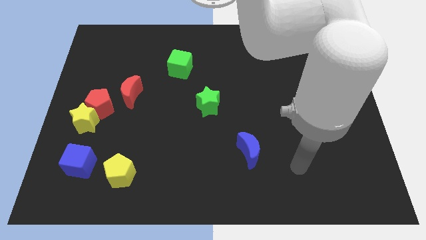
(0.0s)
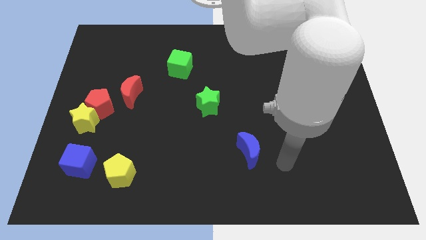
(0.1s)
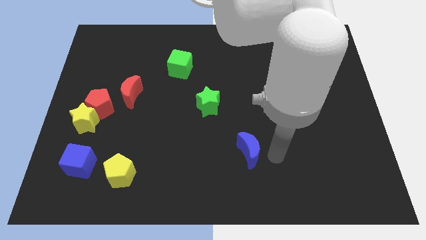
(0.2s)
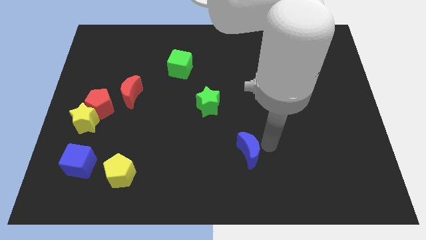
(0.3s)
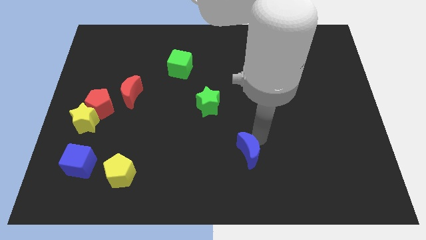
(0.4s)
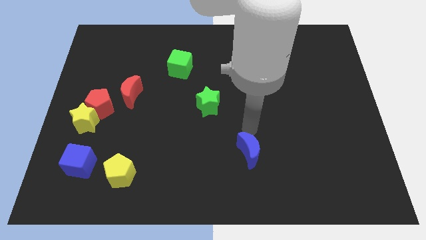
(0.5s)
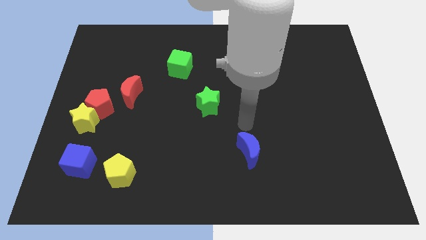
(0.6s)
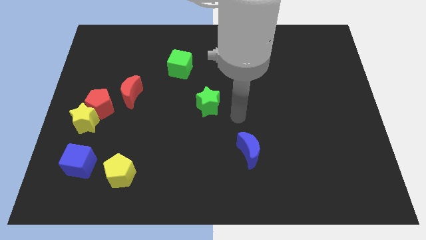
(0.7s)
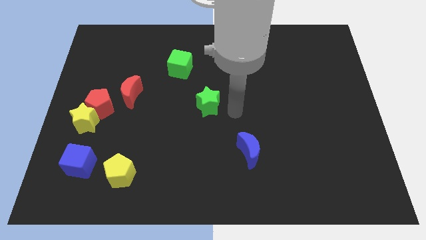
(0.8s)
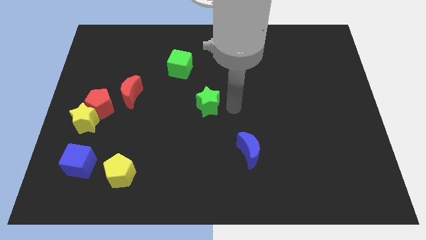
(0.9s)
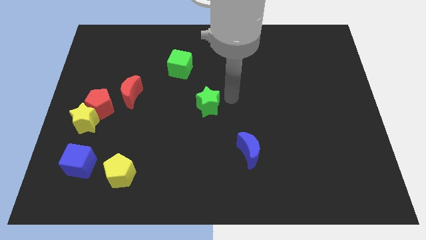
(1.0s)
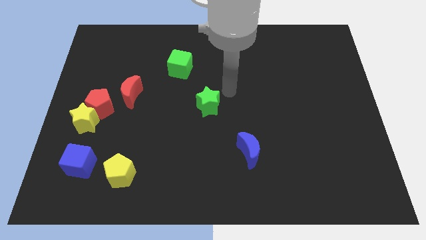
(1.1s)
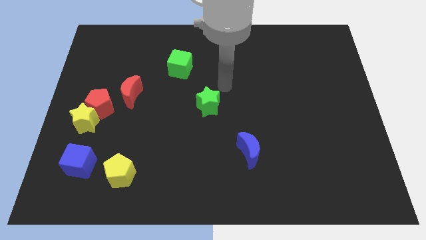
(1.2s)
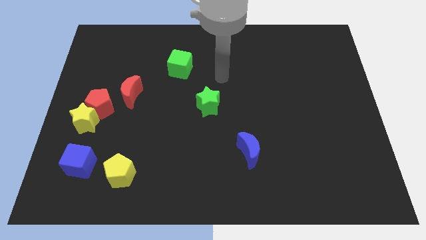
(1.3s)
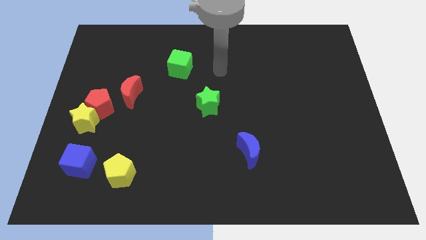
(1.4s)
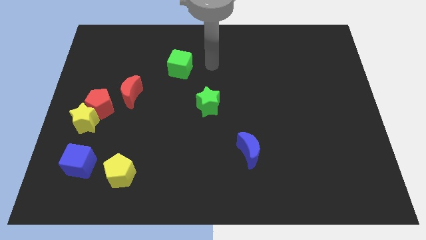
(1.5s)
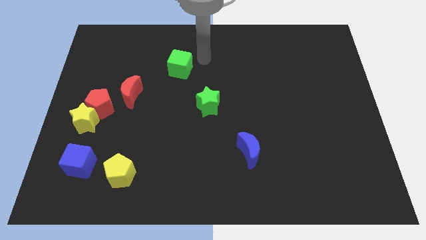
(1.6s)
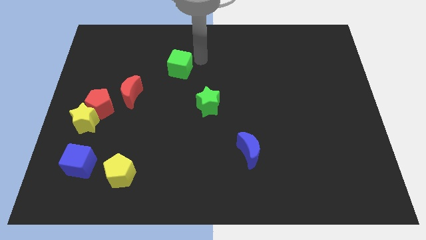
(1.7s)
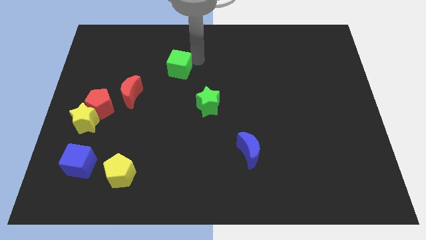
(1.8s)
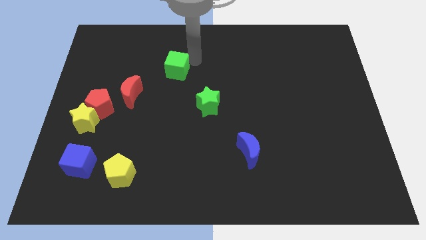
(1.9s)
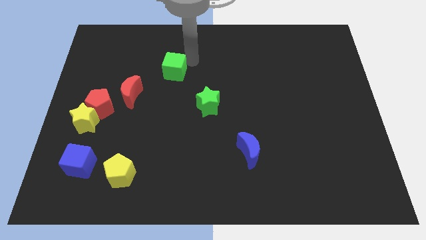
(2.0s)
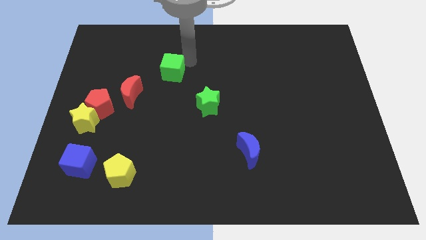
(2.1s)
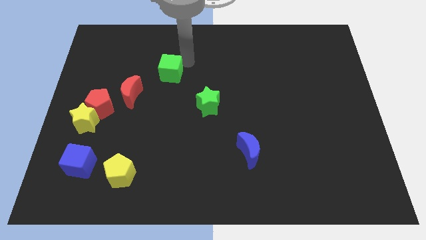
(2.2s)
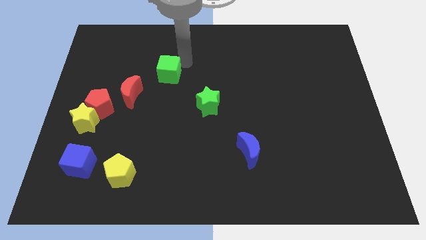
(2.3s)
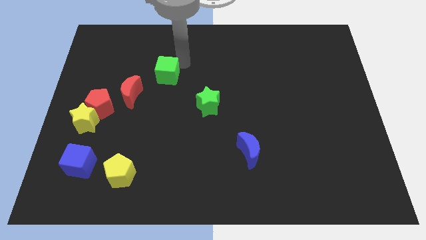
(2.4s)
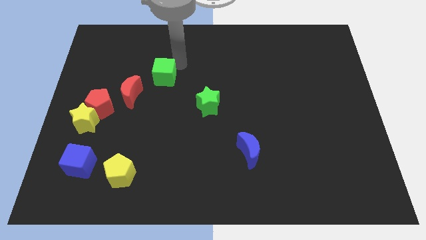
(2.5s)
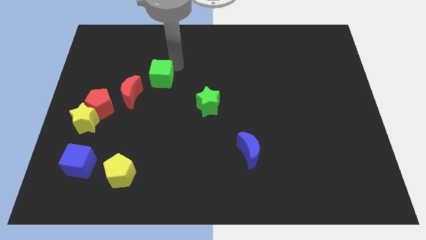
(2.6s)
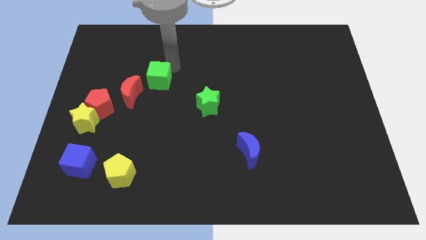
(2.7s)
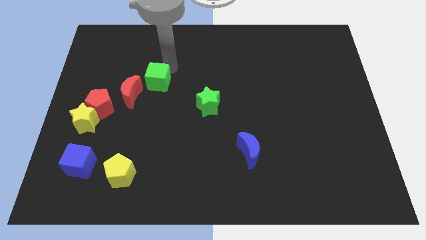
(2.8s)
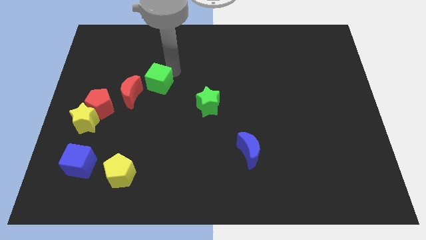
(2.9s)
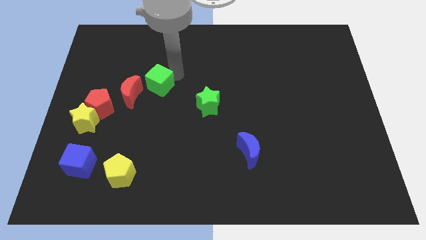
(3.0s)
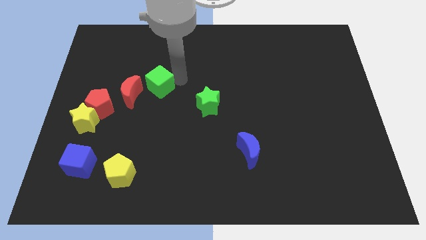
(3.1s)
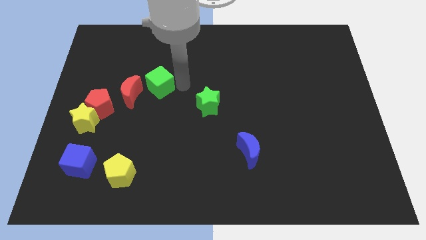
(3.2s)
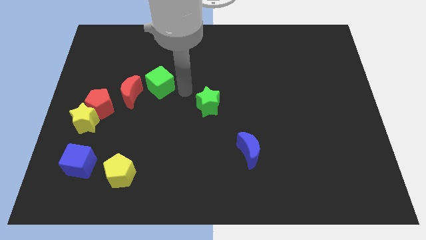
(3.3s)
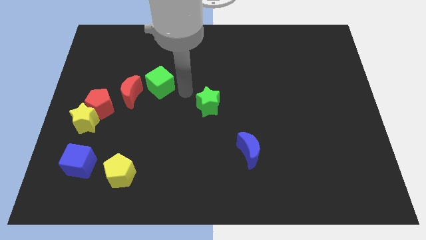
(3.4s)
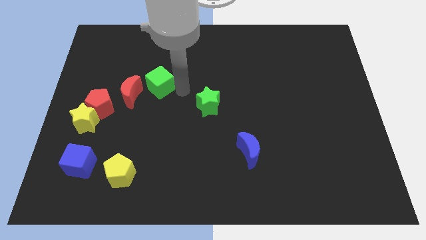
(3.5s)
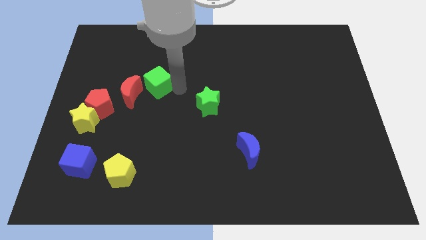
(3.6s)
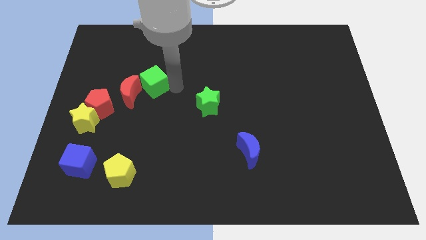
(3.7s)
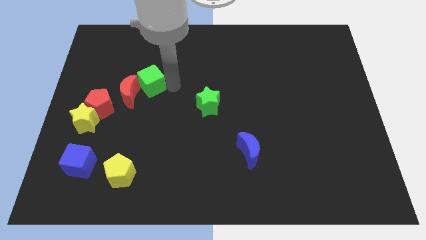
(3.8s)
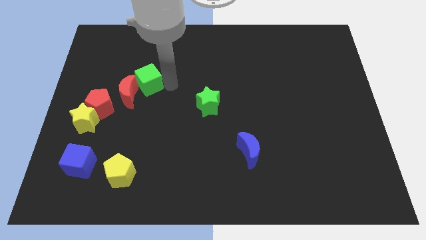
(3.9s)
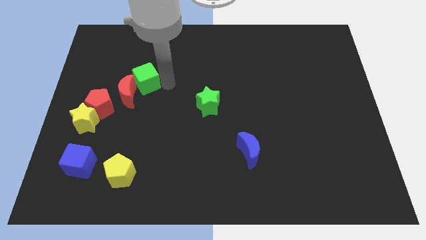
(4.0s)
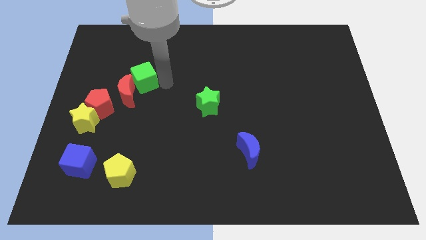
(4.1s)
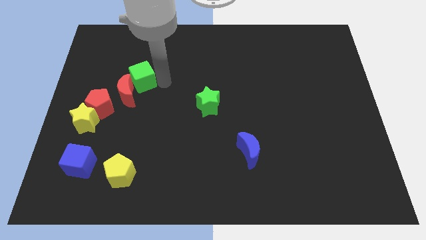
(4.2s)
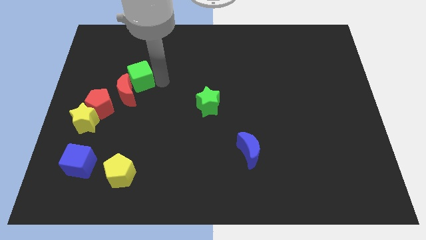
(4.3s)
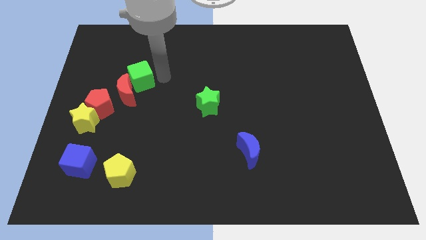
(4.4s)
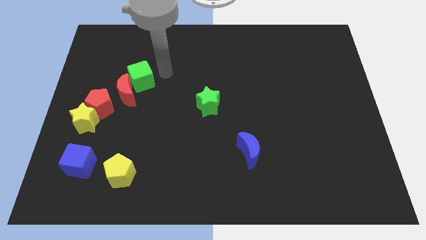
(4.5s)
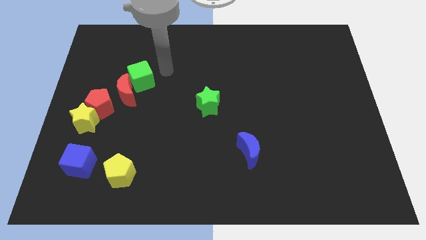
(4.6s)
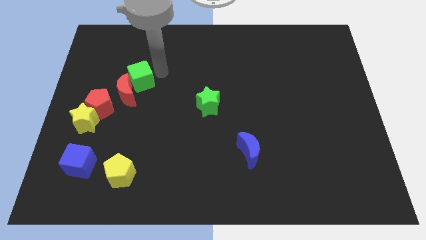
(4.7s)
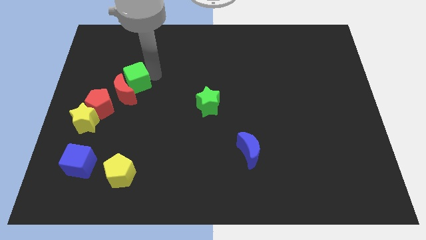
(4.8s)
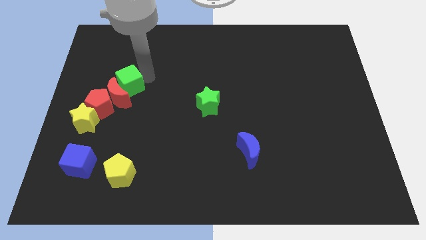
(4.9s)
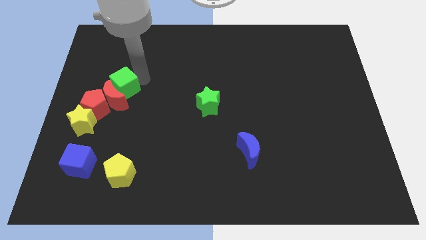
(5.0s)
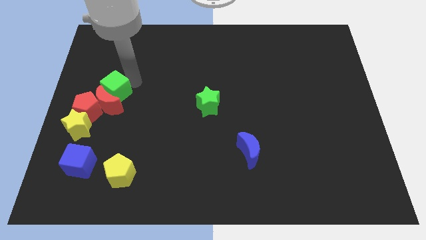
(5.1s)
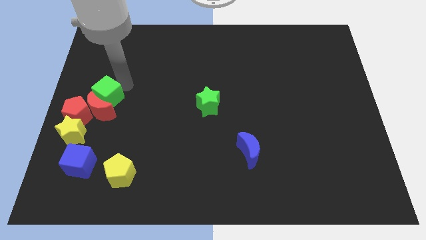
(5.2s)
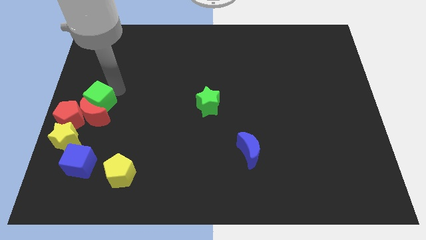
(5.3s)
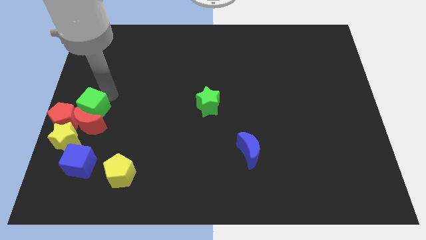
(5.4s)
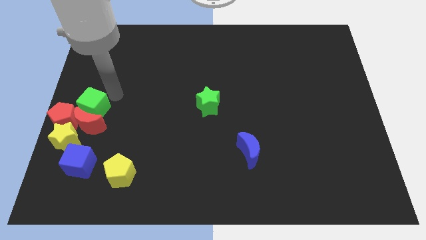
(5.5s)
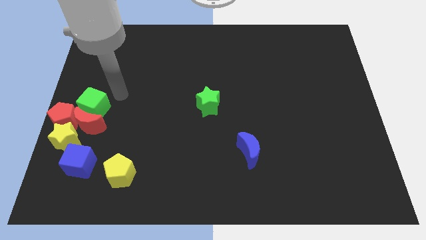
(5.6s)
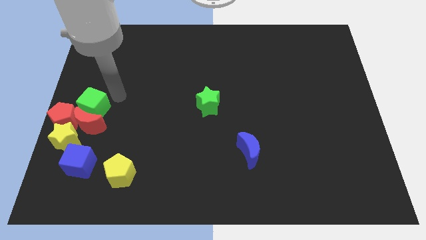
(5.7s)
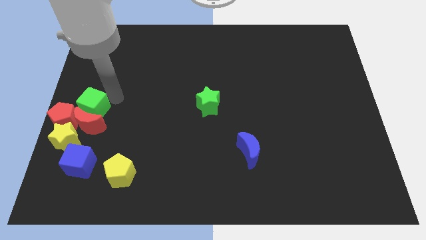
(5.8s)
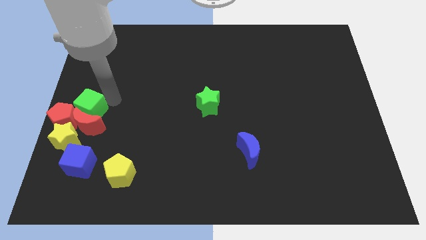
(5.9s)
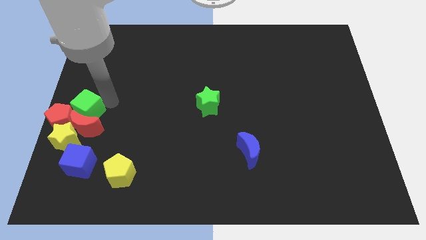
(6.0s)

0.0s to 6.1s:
move the green cube to the red pentagon

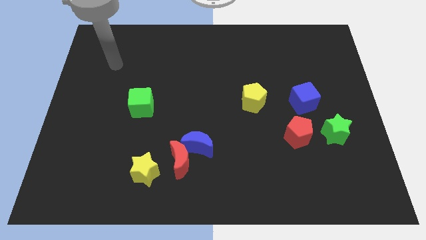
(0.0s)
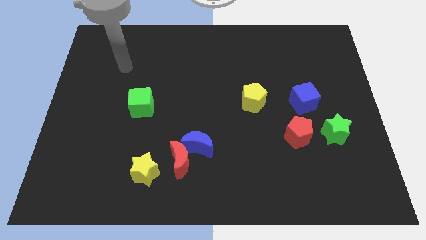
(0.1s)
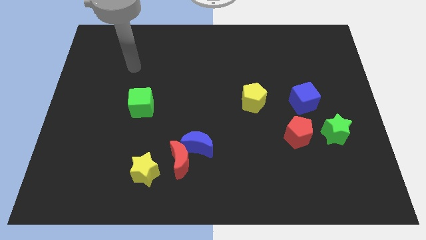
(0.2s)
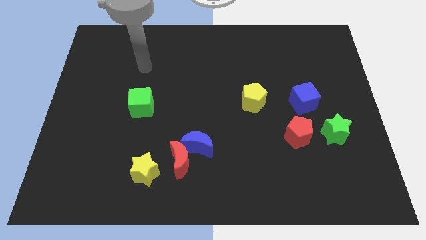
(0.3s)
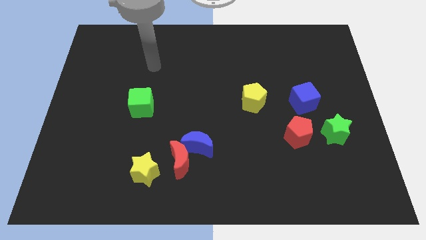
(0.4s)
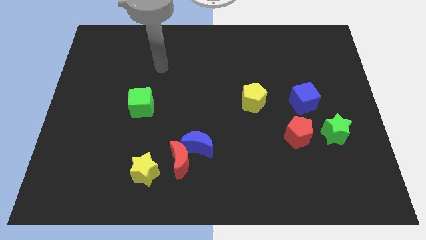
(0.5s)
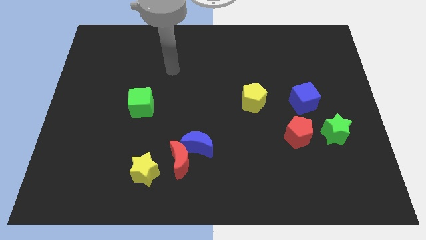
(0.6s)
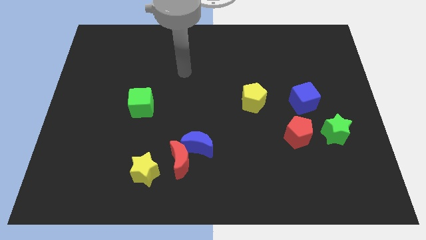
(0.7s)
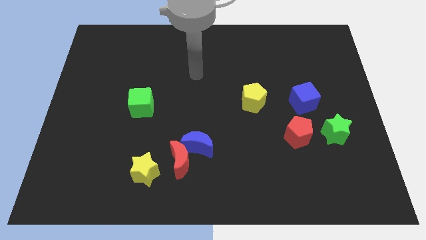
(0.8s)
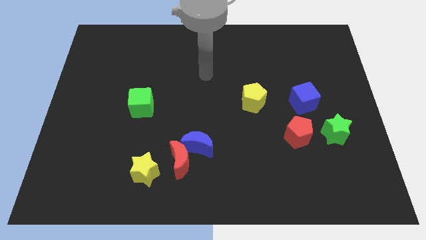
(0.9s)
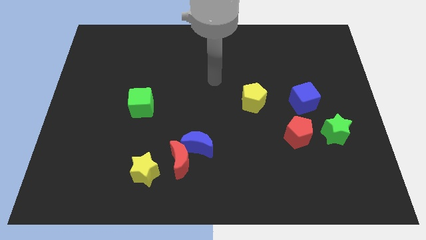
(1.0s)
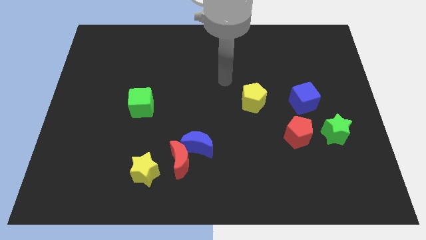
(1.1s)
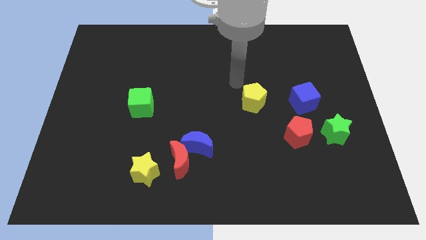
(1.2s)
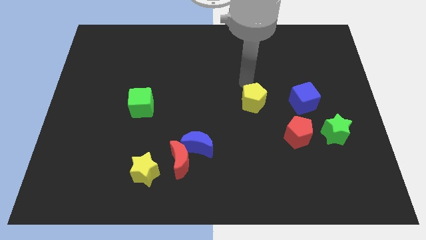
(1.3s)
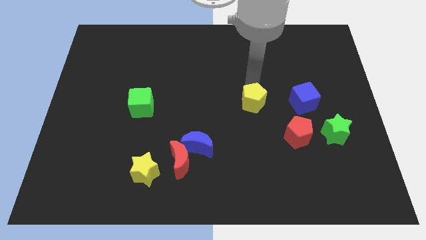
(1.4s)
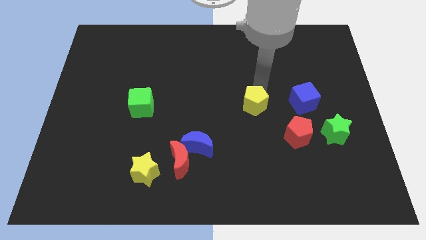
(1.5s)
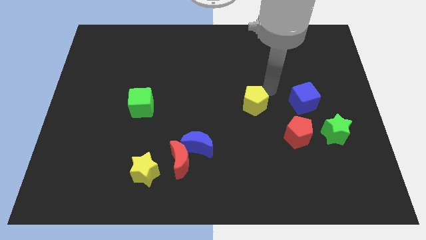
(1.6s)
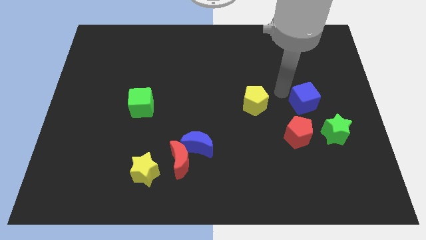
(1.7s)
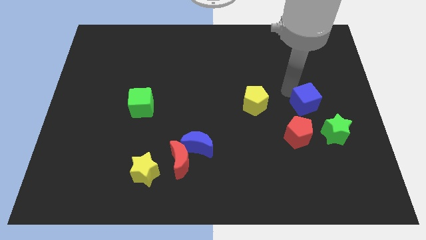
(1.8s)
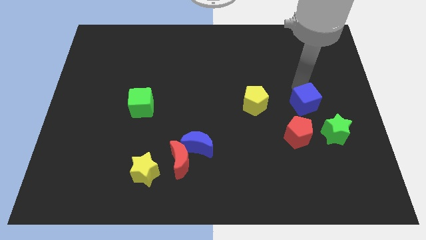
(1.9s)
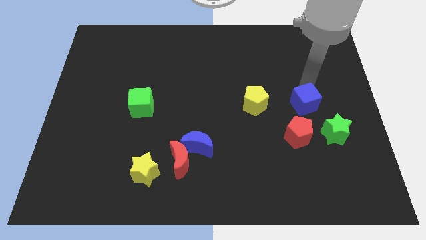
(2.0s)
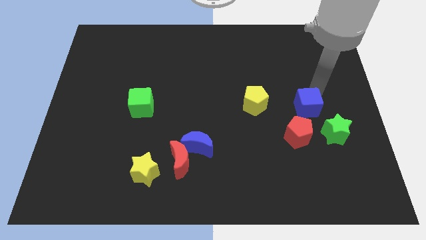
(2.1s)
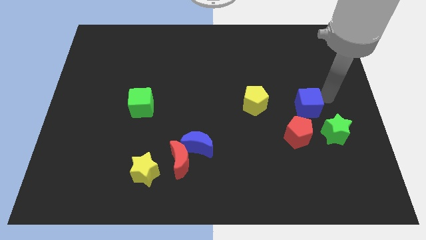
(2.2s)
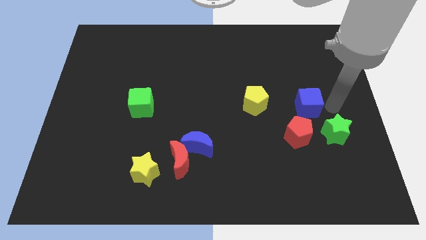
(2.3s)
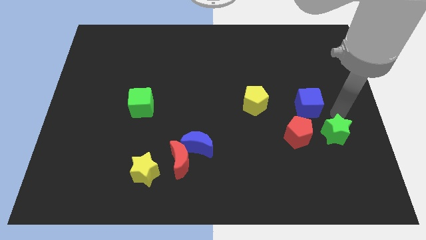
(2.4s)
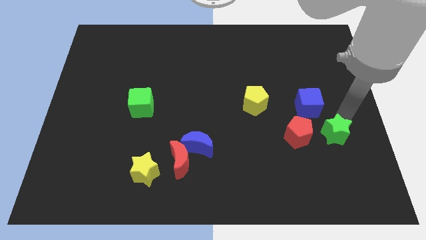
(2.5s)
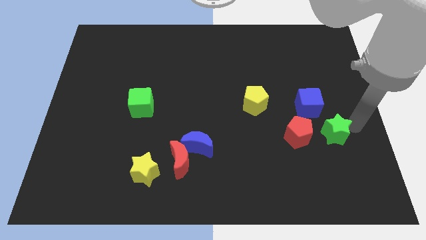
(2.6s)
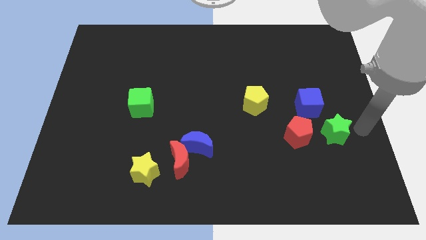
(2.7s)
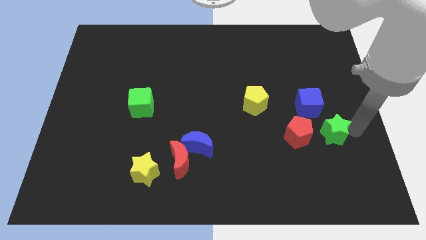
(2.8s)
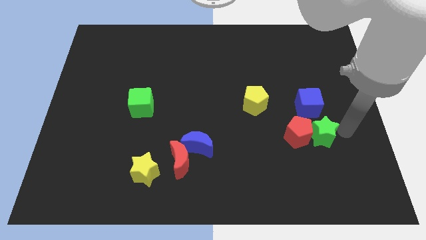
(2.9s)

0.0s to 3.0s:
move the green star next to the red pentagon
